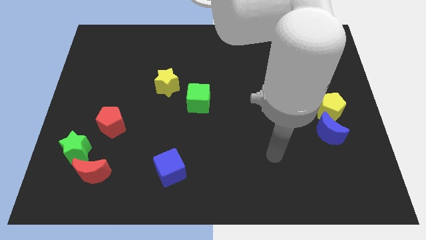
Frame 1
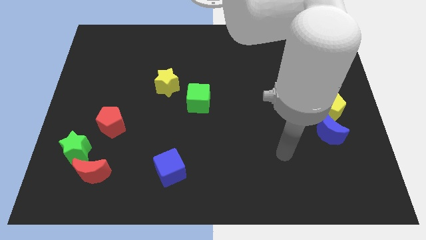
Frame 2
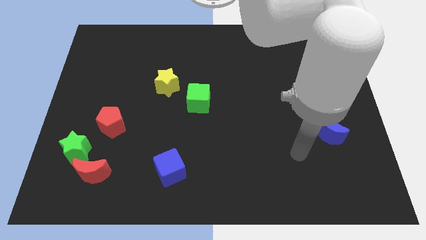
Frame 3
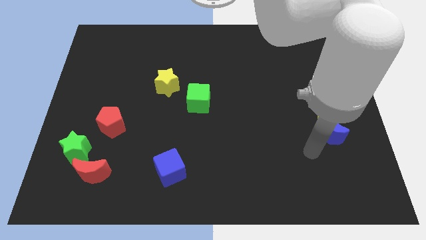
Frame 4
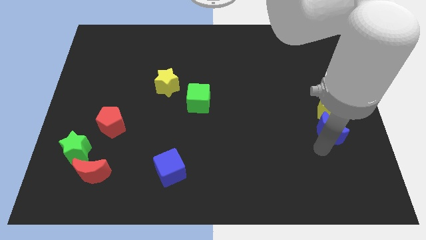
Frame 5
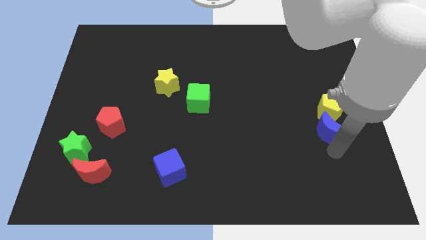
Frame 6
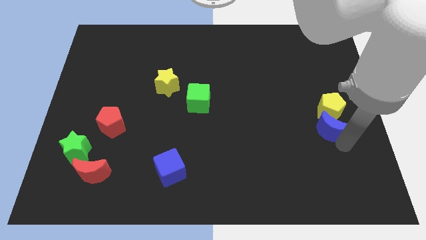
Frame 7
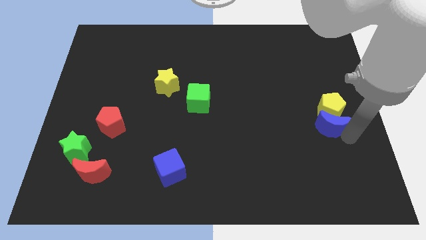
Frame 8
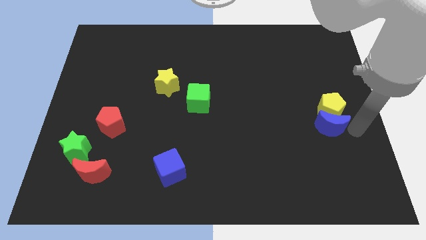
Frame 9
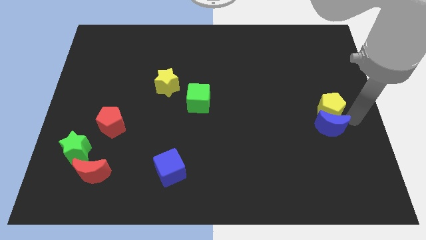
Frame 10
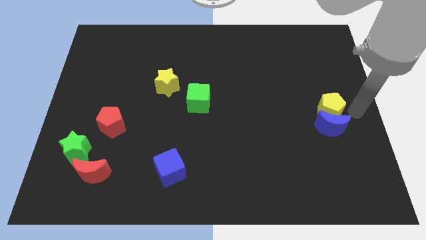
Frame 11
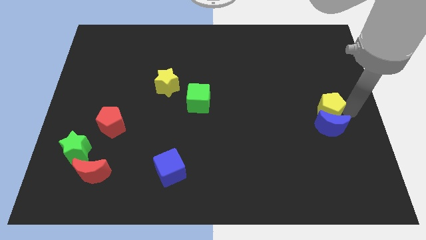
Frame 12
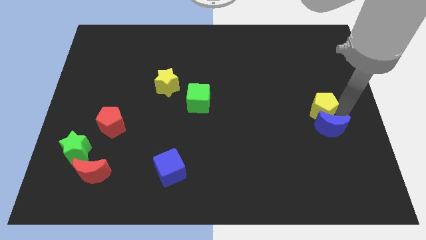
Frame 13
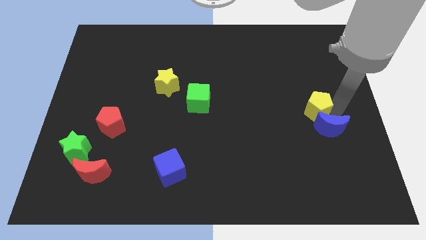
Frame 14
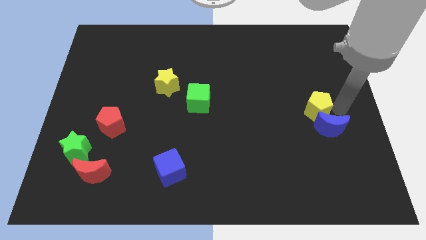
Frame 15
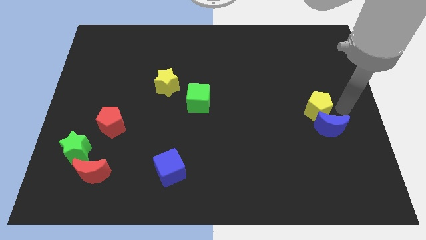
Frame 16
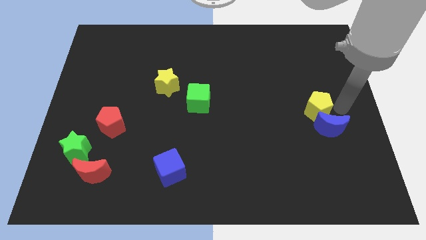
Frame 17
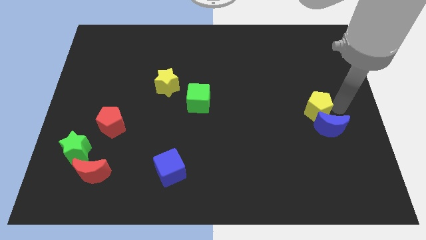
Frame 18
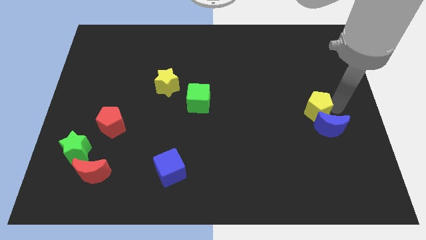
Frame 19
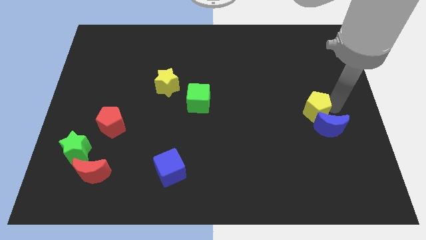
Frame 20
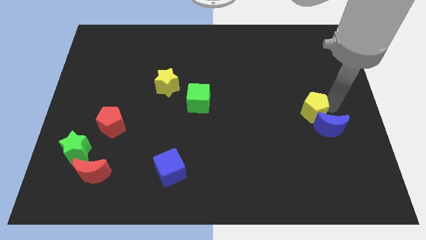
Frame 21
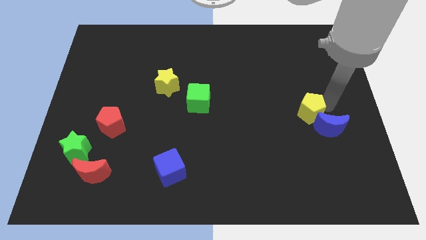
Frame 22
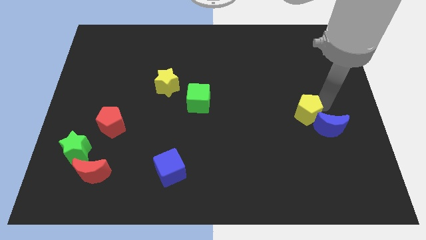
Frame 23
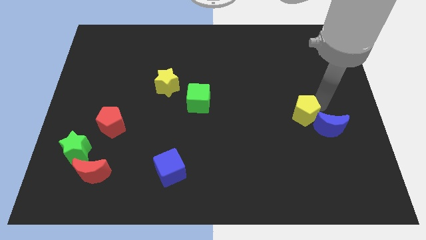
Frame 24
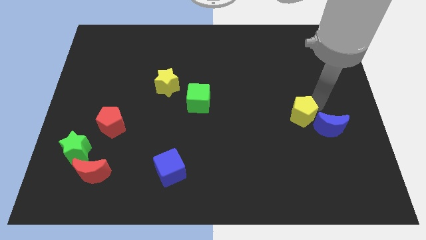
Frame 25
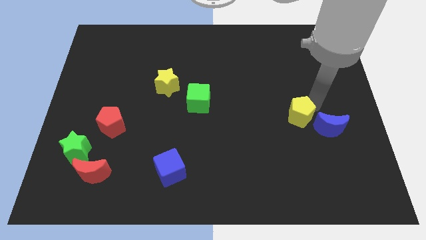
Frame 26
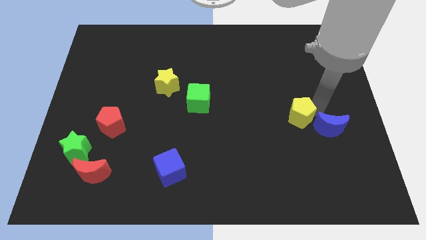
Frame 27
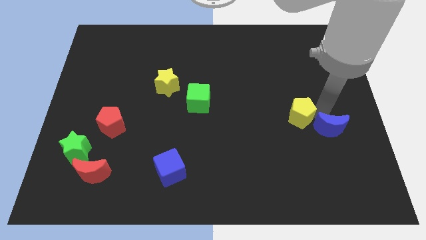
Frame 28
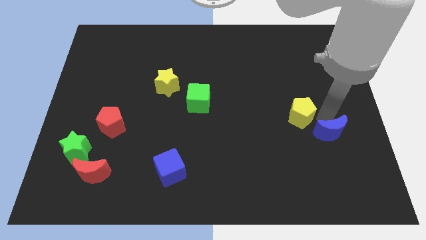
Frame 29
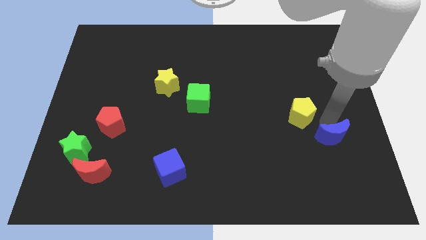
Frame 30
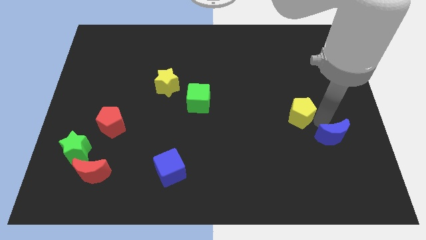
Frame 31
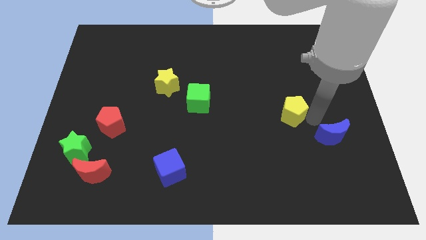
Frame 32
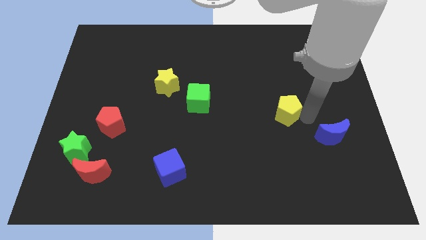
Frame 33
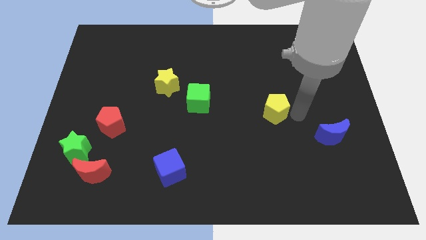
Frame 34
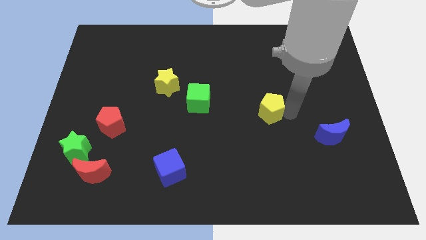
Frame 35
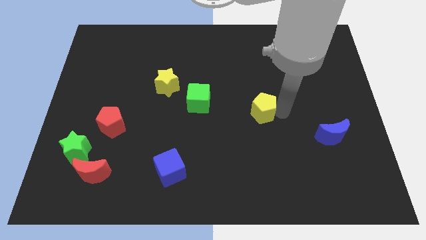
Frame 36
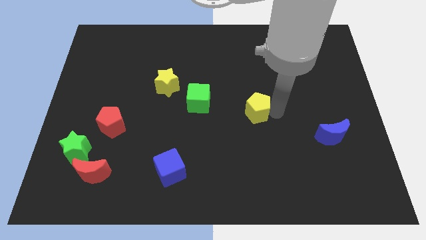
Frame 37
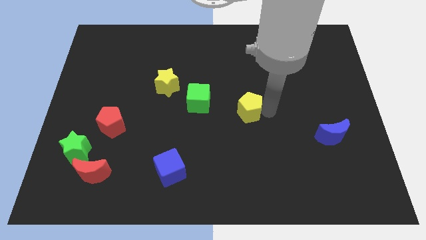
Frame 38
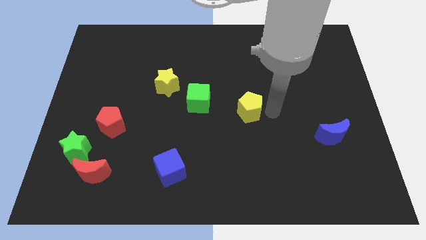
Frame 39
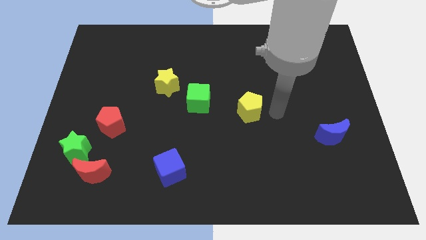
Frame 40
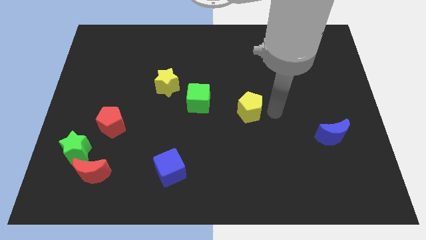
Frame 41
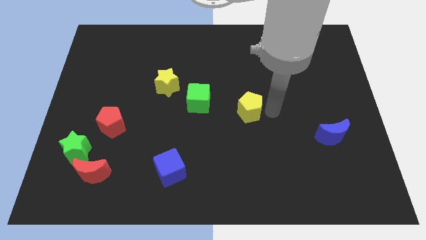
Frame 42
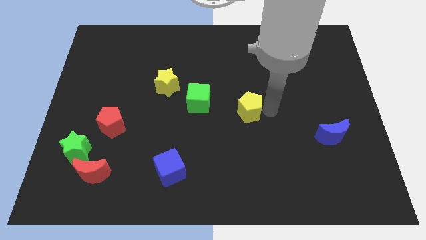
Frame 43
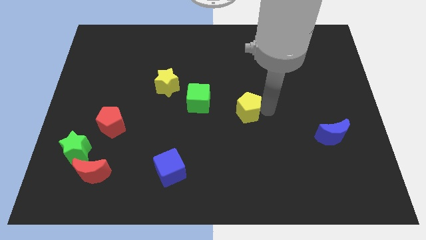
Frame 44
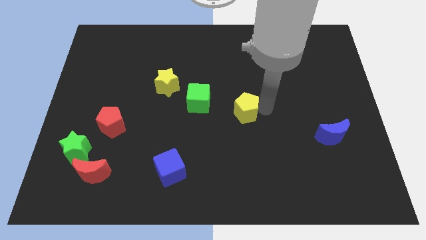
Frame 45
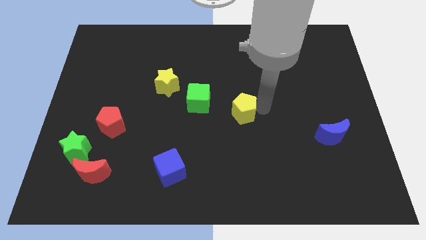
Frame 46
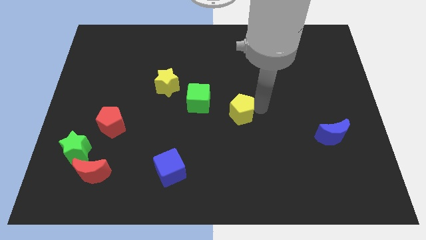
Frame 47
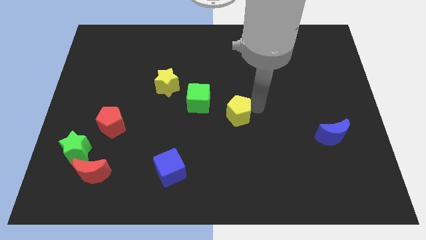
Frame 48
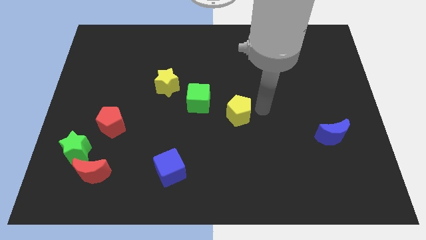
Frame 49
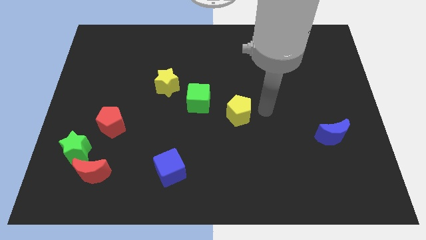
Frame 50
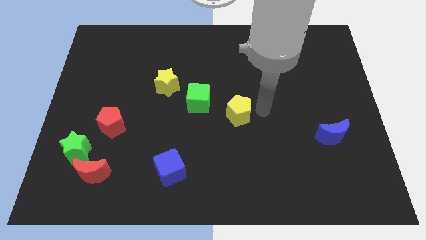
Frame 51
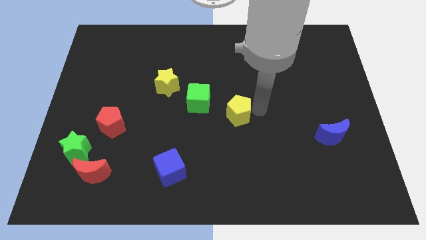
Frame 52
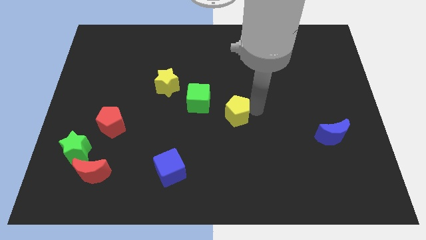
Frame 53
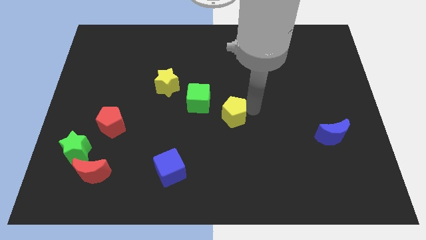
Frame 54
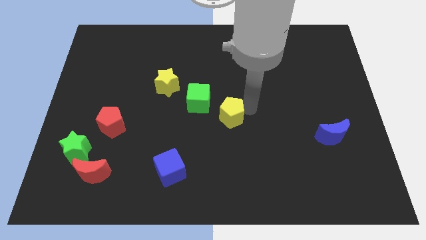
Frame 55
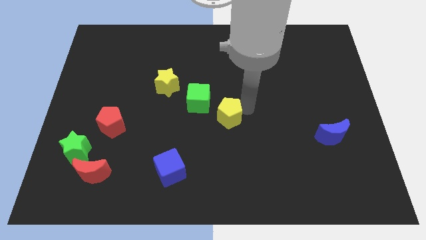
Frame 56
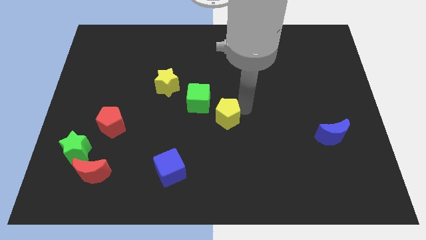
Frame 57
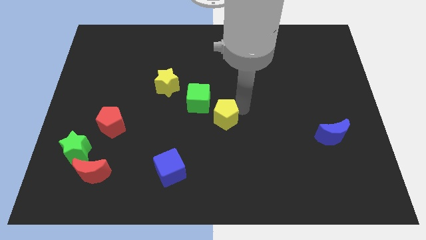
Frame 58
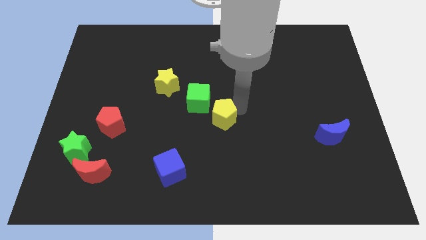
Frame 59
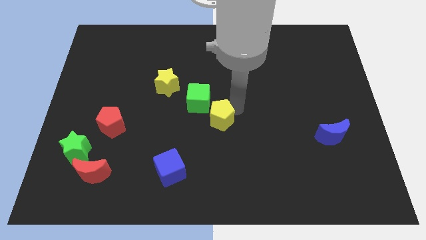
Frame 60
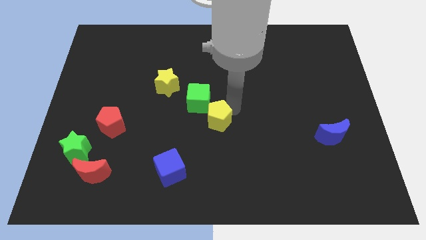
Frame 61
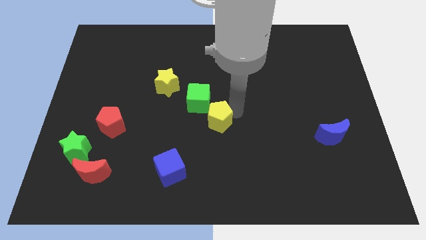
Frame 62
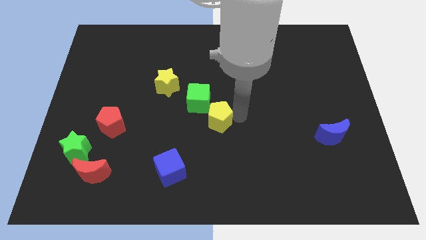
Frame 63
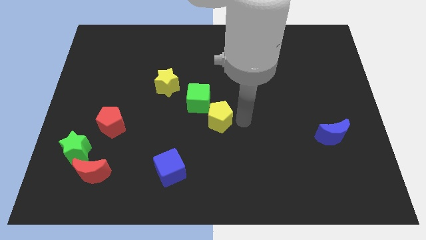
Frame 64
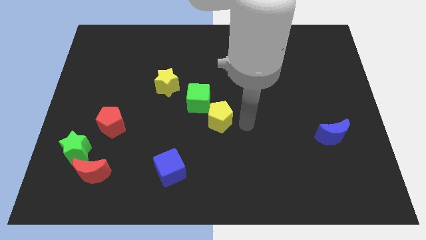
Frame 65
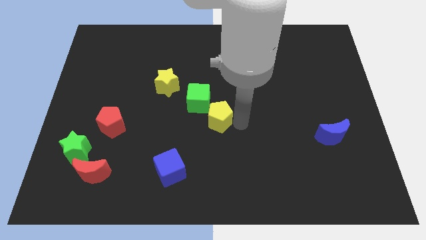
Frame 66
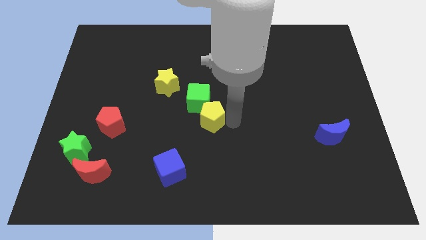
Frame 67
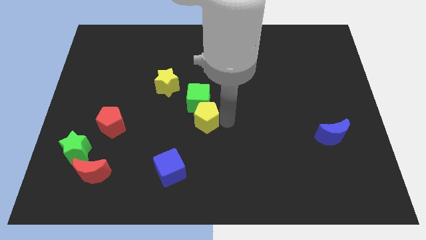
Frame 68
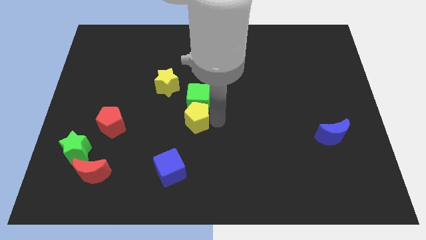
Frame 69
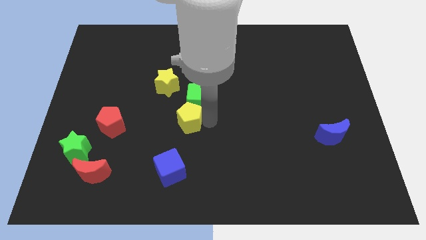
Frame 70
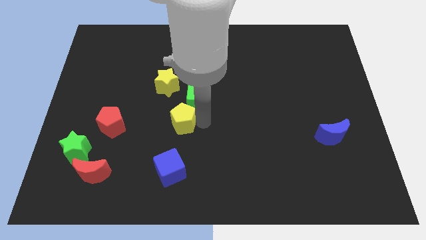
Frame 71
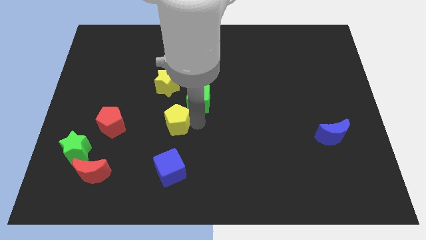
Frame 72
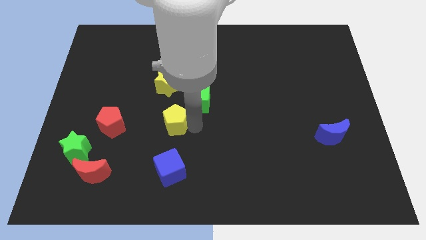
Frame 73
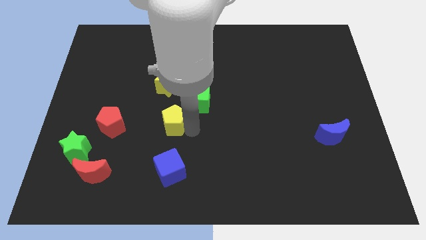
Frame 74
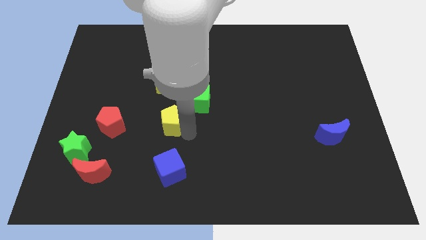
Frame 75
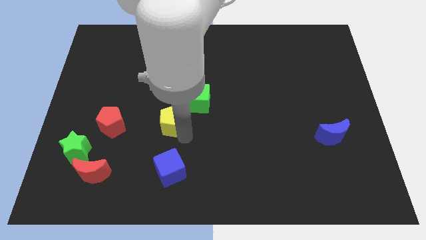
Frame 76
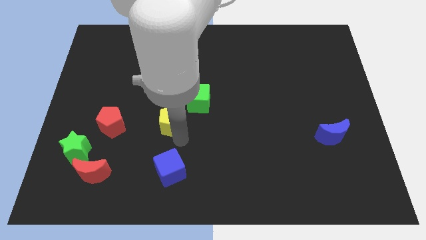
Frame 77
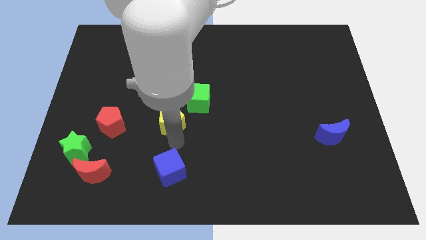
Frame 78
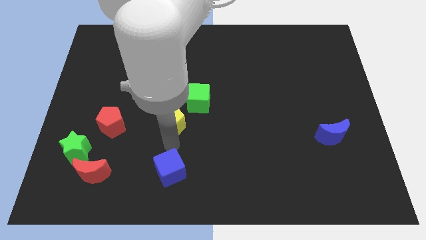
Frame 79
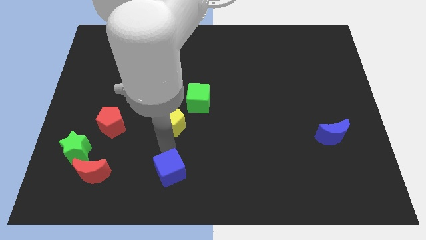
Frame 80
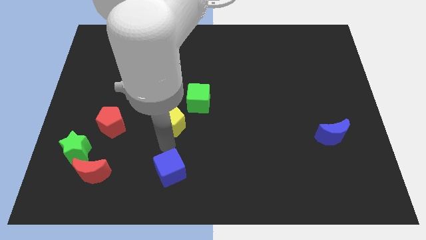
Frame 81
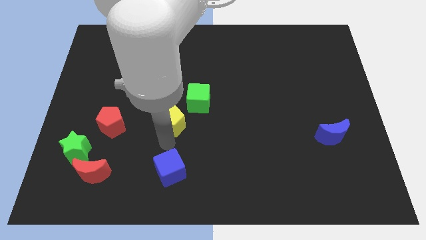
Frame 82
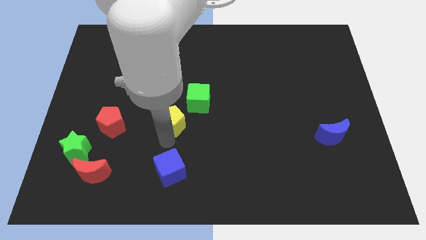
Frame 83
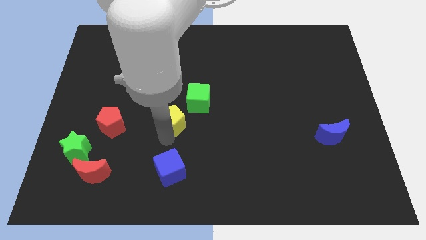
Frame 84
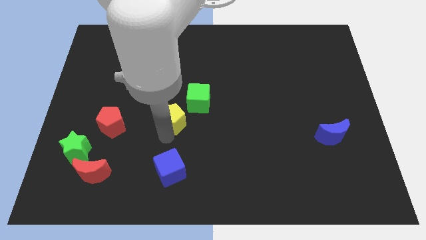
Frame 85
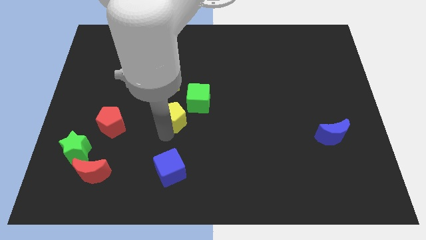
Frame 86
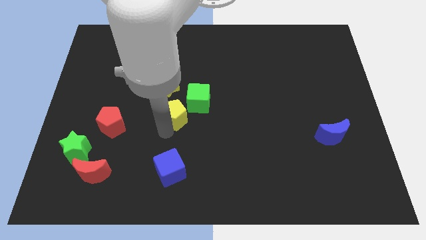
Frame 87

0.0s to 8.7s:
slide the yellow pentagon left of the green cube
